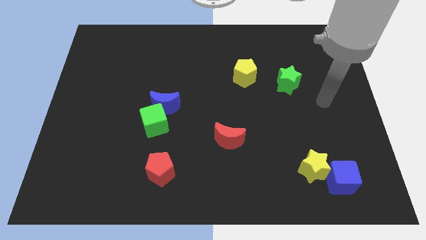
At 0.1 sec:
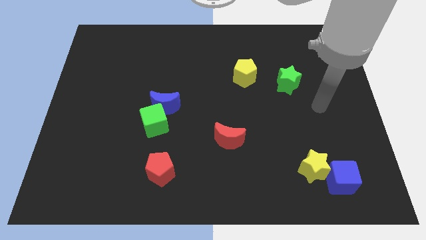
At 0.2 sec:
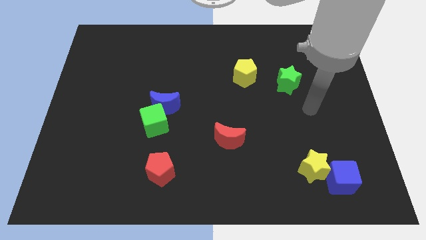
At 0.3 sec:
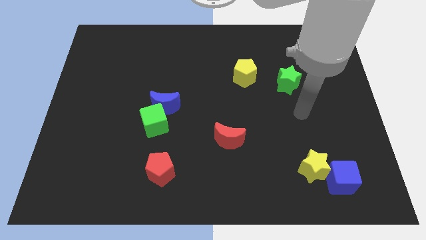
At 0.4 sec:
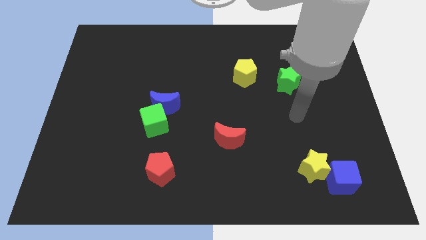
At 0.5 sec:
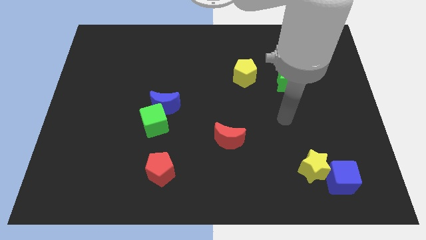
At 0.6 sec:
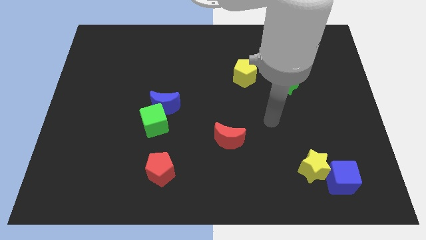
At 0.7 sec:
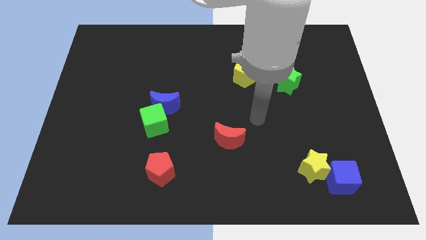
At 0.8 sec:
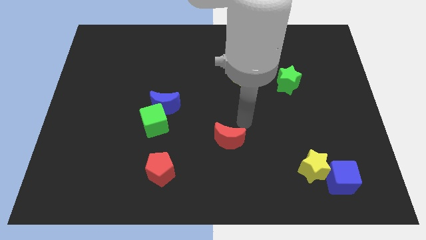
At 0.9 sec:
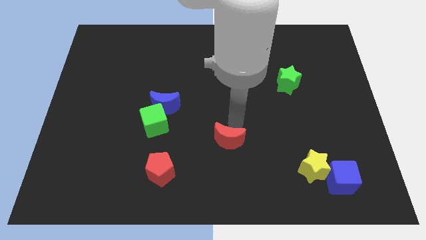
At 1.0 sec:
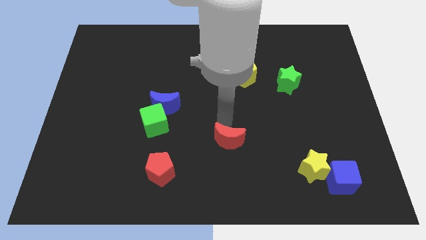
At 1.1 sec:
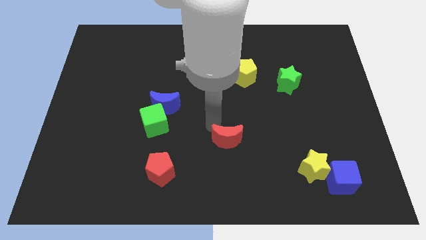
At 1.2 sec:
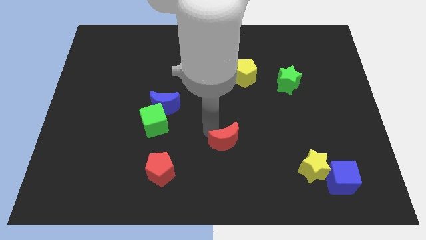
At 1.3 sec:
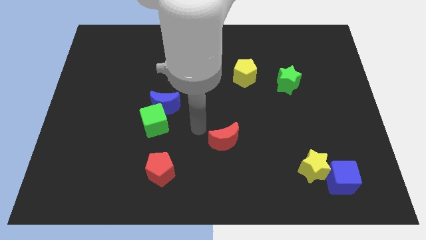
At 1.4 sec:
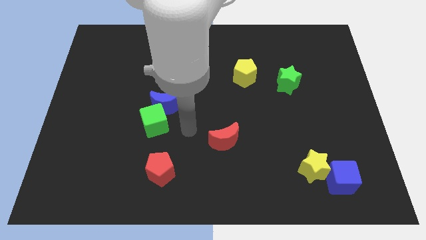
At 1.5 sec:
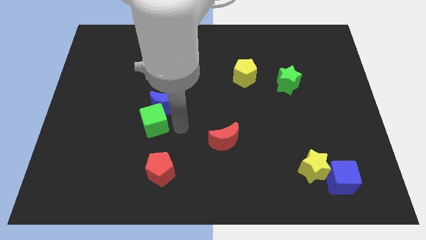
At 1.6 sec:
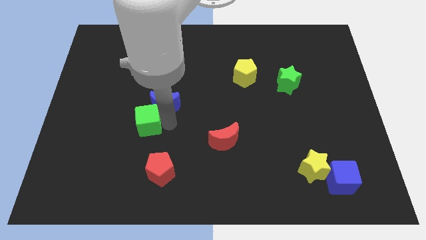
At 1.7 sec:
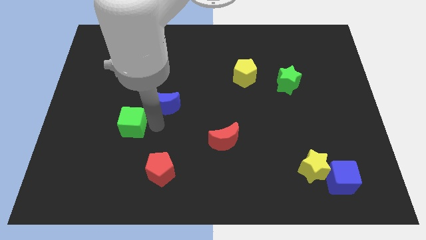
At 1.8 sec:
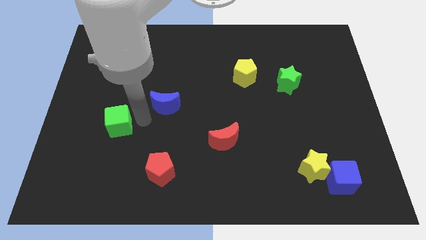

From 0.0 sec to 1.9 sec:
pull the blue moon apart from the green cube

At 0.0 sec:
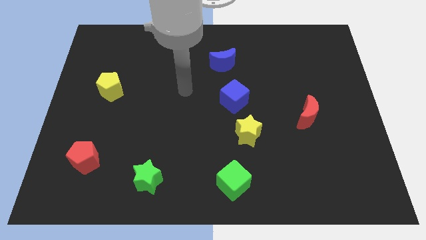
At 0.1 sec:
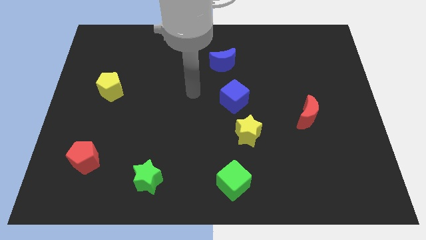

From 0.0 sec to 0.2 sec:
move the blue cube away from the yellow star

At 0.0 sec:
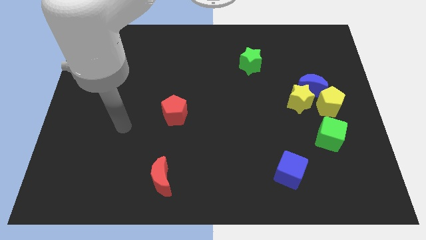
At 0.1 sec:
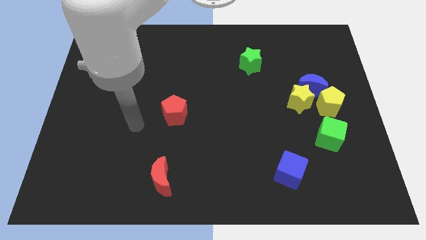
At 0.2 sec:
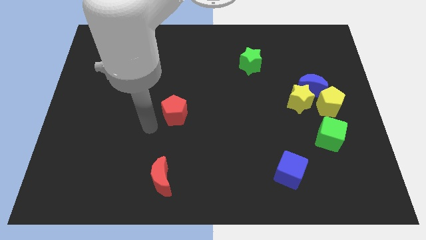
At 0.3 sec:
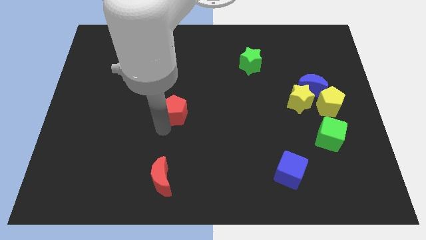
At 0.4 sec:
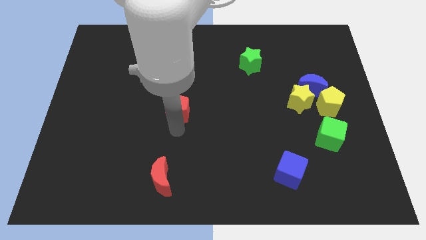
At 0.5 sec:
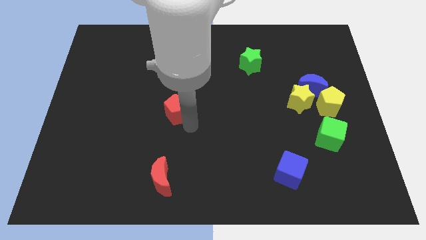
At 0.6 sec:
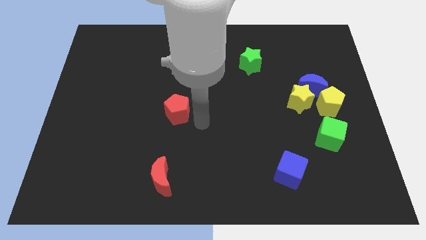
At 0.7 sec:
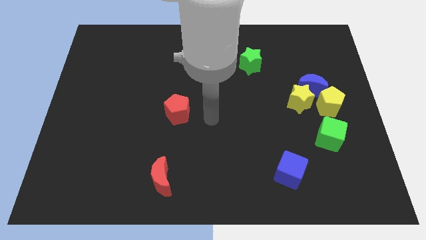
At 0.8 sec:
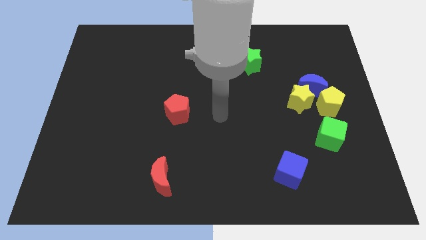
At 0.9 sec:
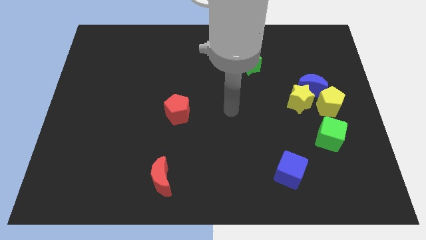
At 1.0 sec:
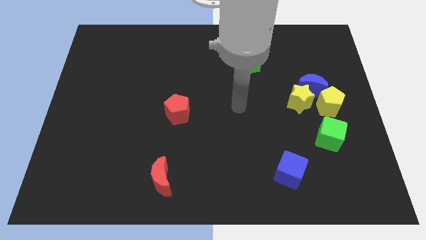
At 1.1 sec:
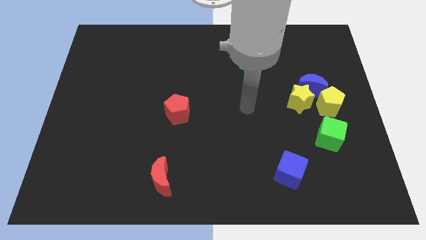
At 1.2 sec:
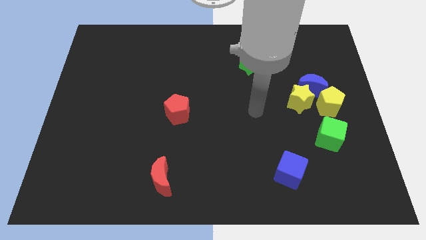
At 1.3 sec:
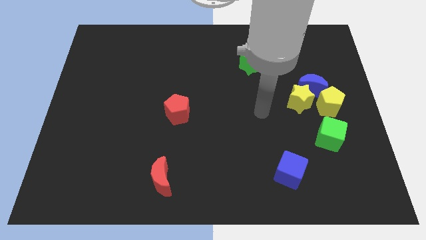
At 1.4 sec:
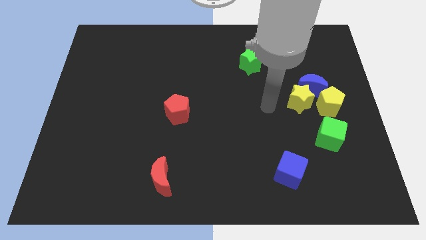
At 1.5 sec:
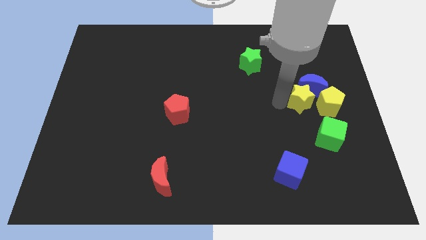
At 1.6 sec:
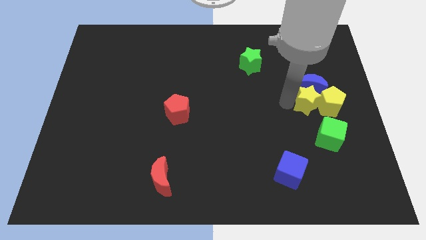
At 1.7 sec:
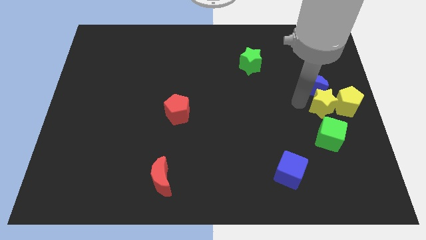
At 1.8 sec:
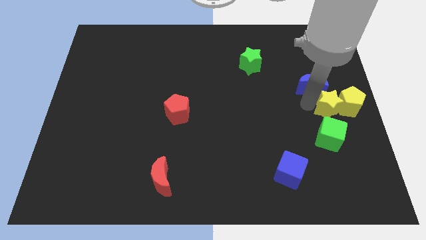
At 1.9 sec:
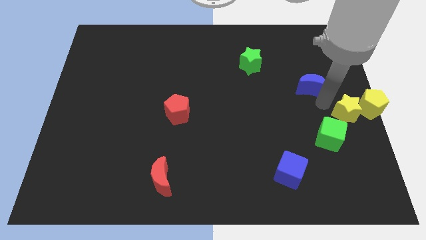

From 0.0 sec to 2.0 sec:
move the blue moon away from the yellow star and yellow pentagon

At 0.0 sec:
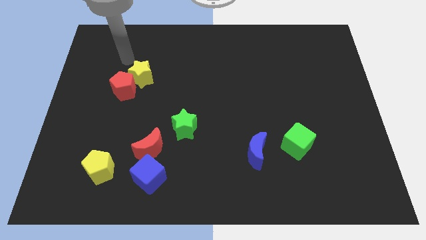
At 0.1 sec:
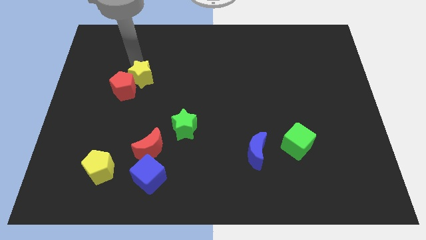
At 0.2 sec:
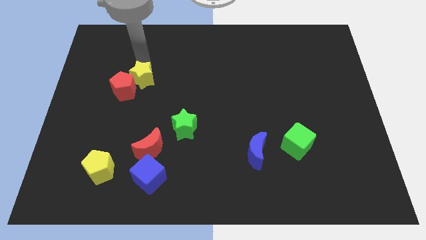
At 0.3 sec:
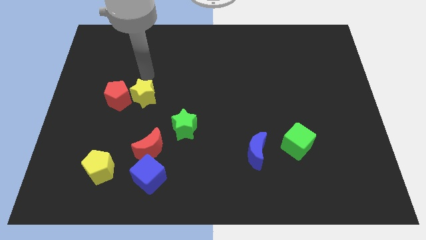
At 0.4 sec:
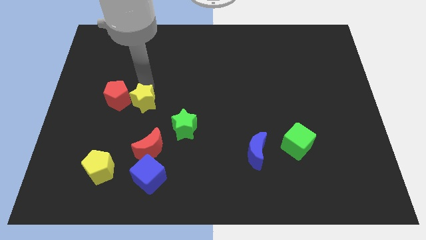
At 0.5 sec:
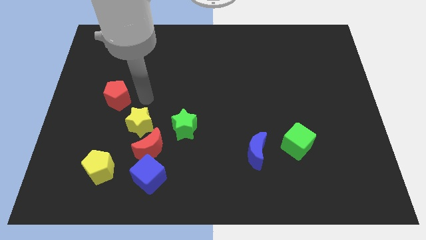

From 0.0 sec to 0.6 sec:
move the red pentagon away from the yellow star

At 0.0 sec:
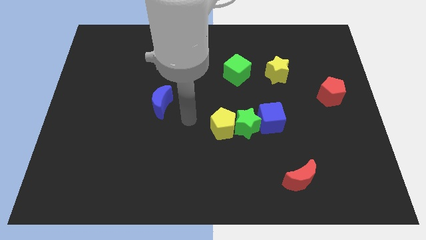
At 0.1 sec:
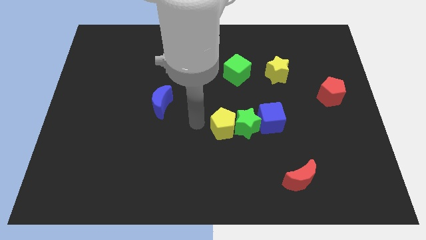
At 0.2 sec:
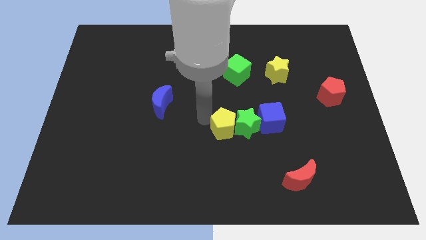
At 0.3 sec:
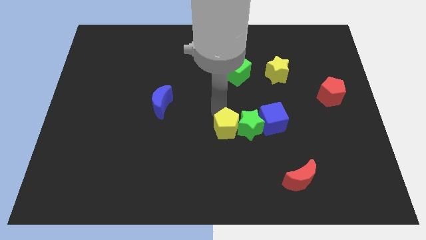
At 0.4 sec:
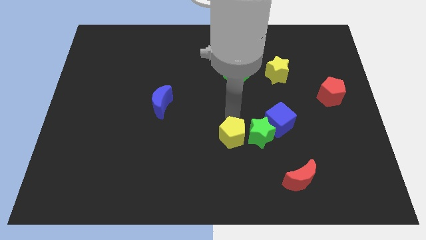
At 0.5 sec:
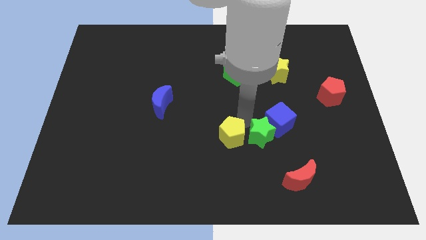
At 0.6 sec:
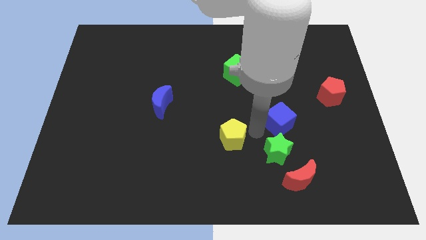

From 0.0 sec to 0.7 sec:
separate the yellow pentagon from the green star

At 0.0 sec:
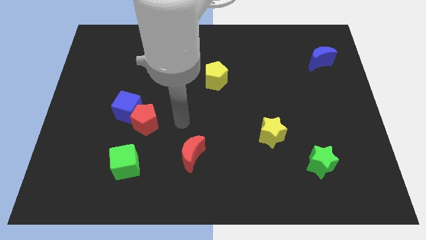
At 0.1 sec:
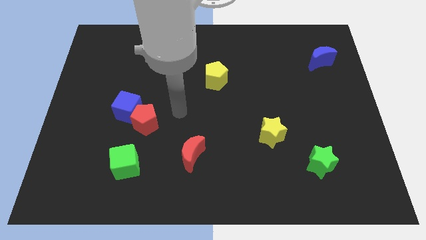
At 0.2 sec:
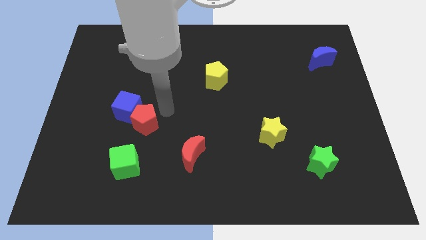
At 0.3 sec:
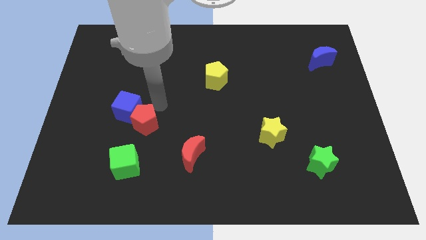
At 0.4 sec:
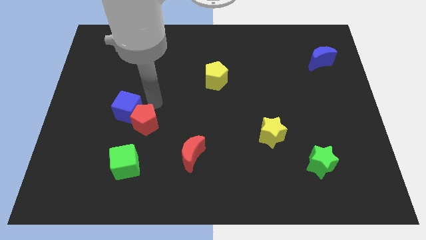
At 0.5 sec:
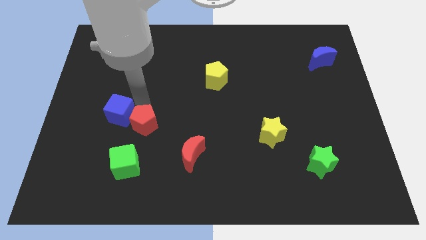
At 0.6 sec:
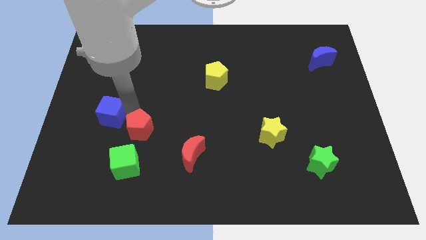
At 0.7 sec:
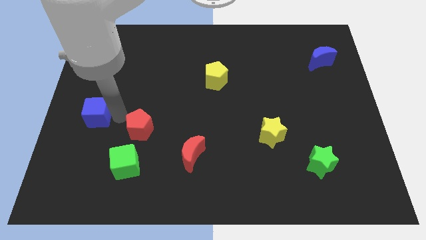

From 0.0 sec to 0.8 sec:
pull the red pentagon apart from the blue cube

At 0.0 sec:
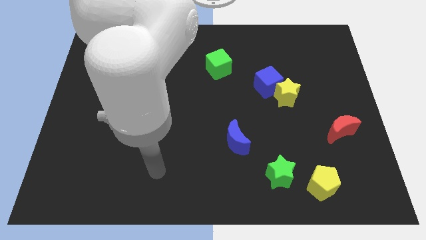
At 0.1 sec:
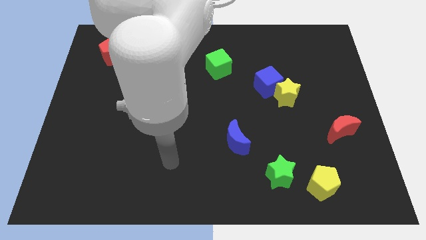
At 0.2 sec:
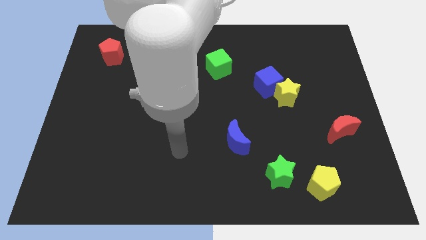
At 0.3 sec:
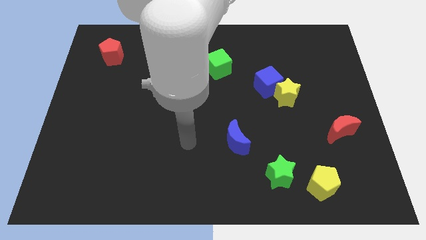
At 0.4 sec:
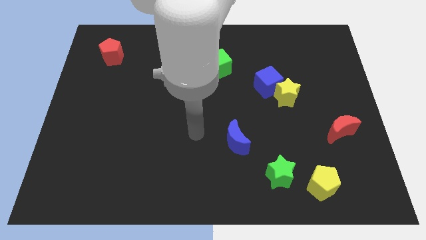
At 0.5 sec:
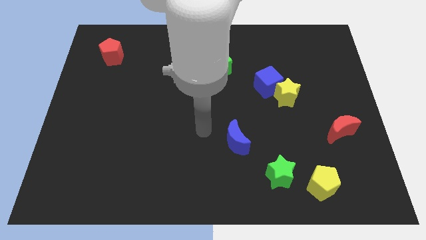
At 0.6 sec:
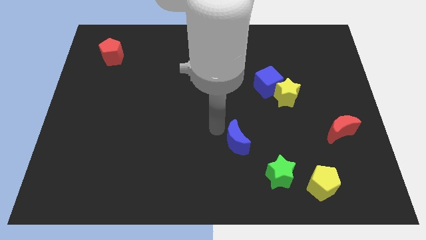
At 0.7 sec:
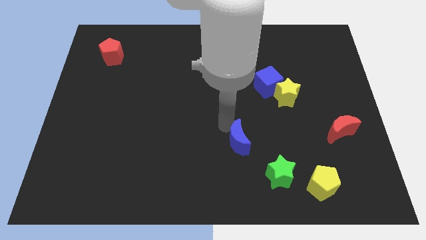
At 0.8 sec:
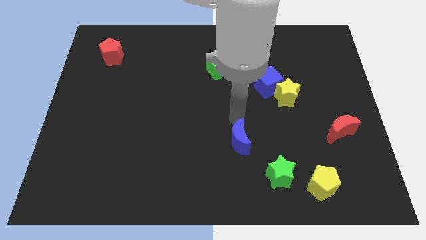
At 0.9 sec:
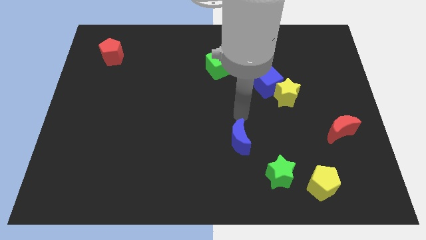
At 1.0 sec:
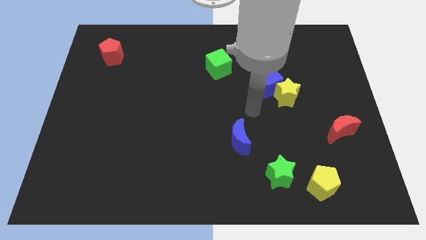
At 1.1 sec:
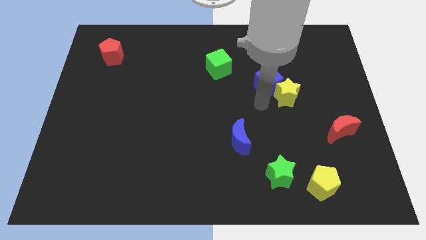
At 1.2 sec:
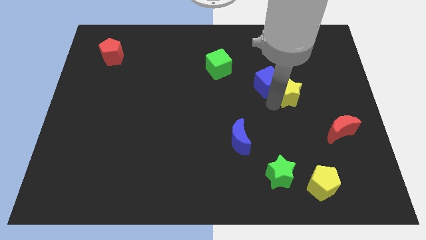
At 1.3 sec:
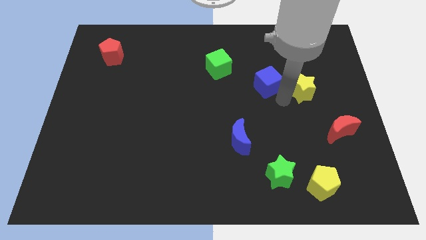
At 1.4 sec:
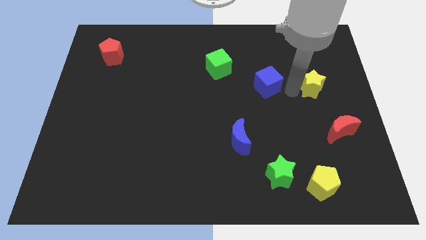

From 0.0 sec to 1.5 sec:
separate the blue cube from the yellow star

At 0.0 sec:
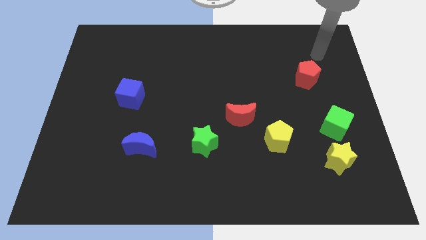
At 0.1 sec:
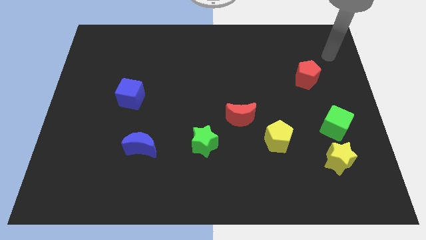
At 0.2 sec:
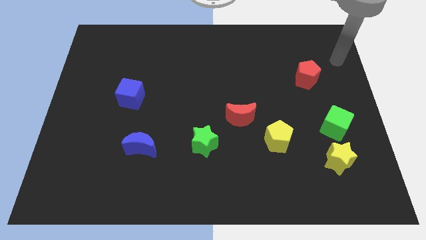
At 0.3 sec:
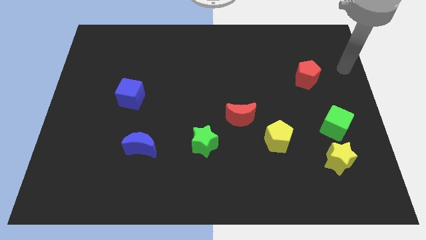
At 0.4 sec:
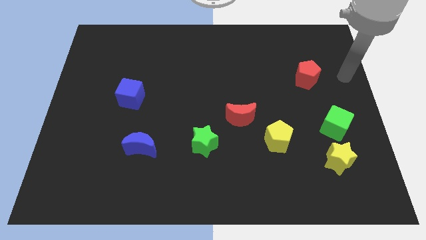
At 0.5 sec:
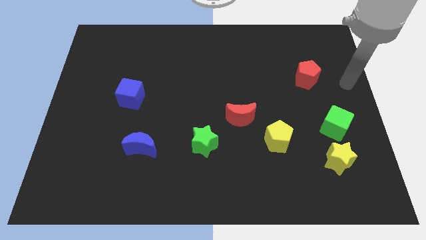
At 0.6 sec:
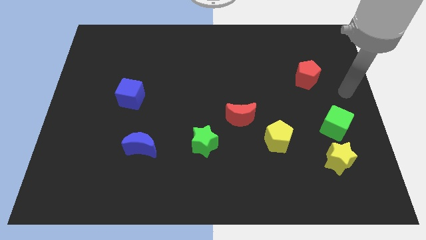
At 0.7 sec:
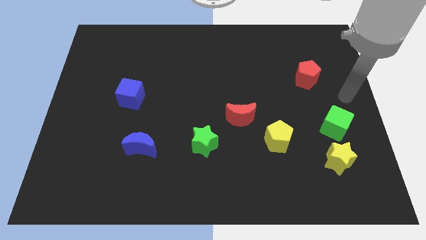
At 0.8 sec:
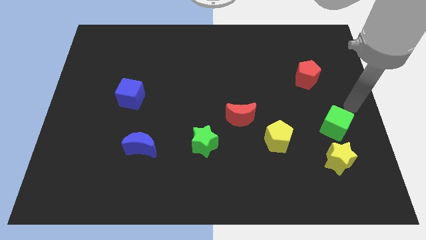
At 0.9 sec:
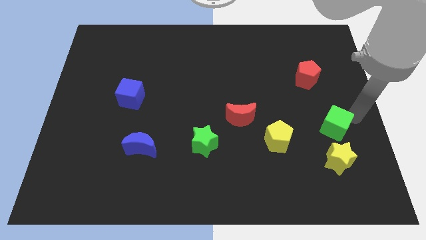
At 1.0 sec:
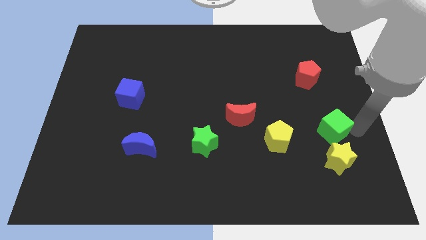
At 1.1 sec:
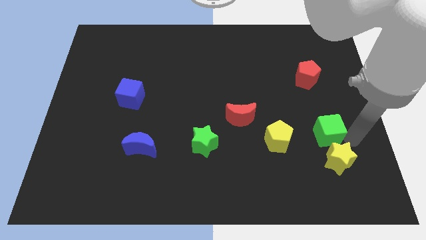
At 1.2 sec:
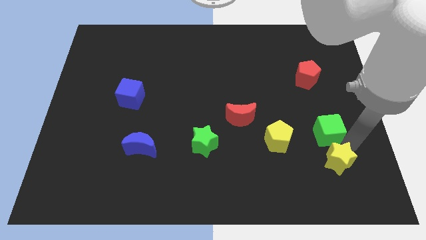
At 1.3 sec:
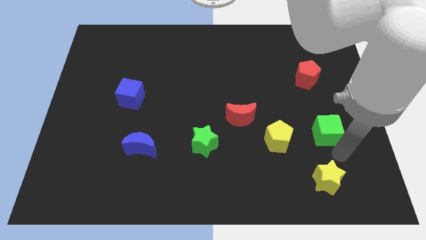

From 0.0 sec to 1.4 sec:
pull the green cube apart from the yellow star

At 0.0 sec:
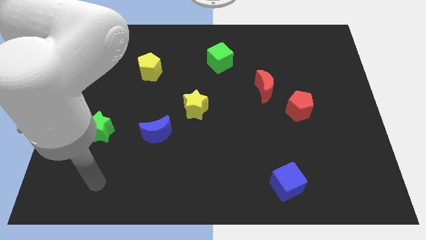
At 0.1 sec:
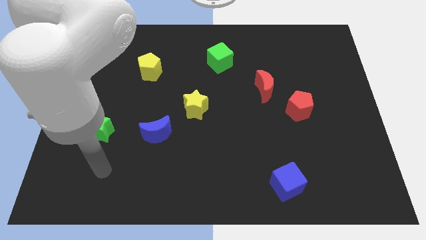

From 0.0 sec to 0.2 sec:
pull the red moon apart from the red pentagon

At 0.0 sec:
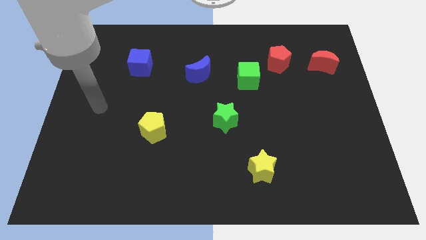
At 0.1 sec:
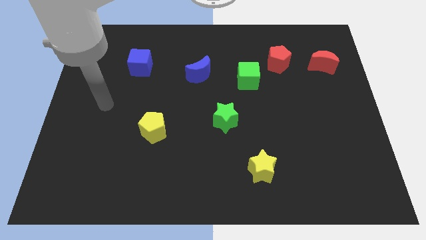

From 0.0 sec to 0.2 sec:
pull the red pentagon apart from the green cube
